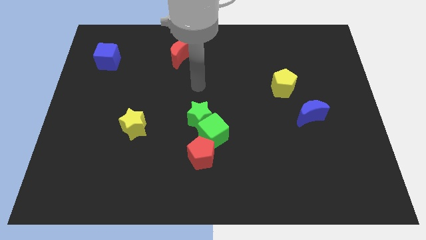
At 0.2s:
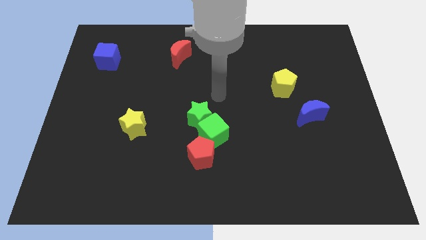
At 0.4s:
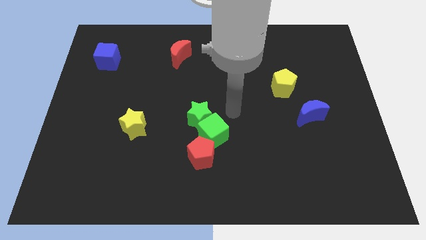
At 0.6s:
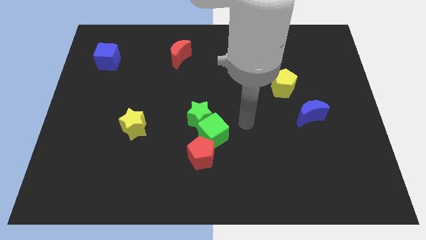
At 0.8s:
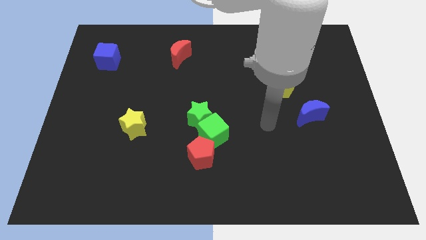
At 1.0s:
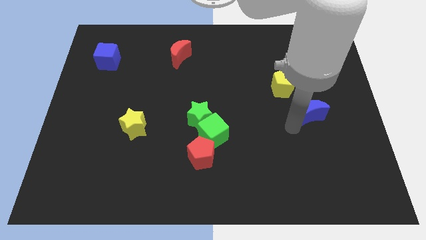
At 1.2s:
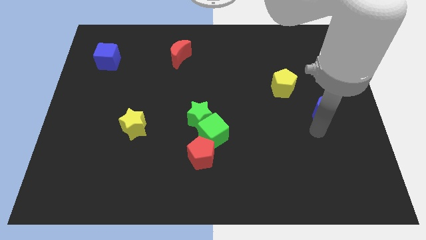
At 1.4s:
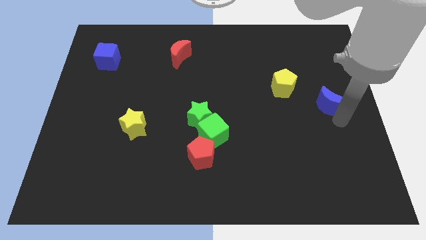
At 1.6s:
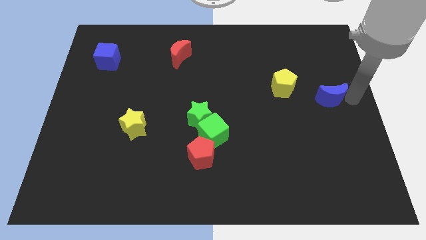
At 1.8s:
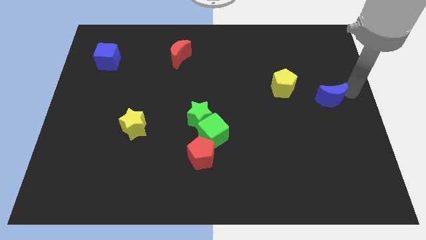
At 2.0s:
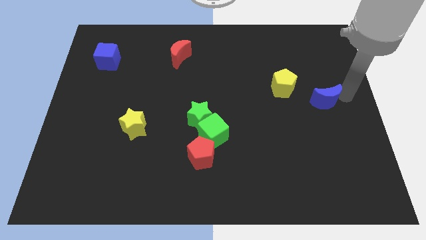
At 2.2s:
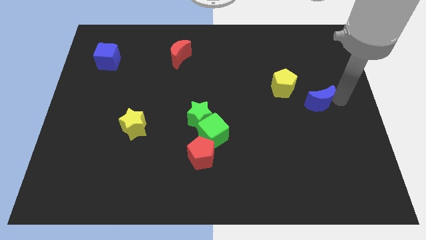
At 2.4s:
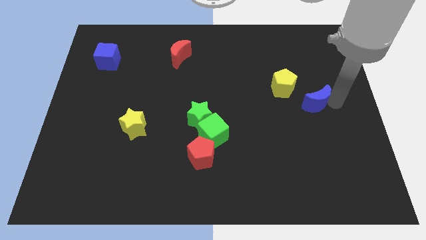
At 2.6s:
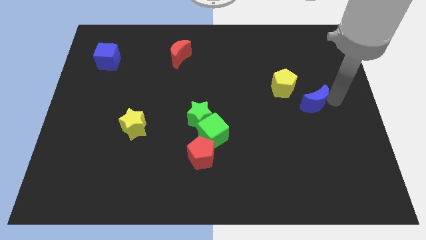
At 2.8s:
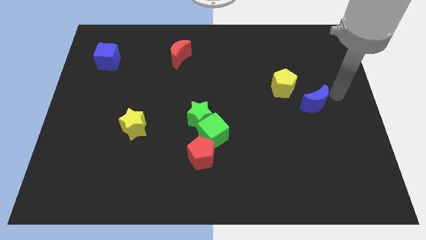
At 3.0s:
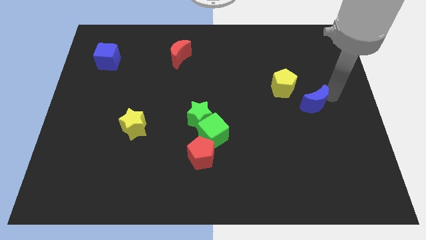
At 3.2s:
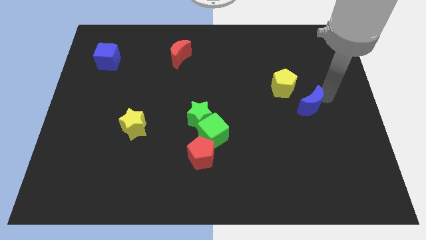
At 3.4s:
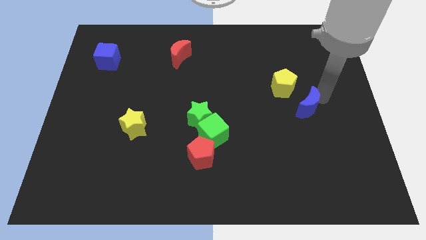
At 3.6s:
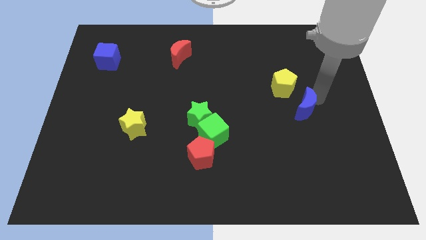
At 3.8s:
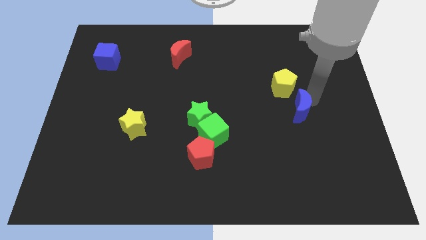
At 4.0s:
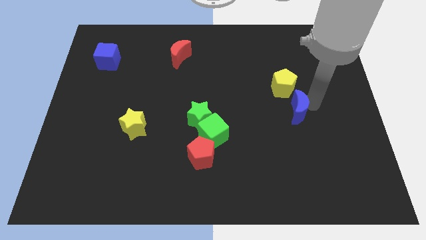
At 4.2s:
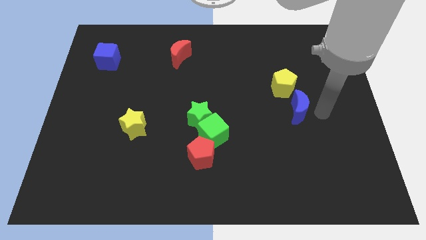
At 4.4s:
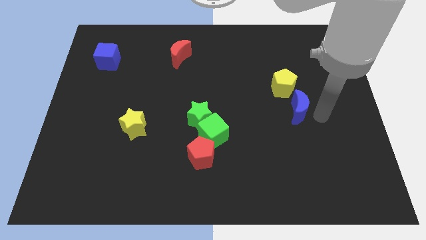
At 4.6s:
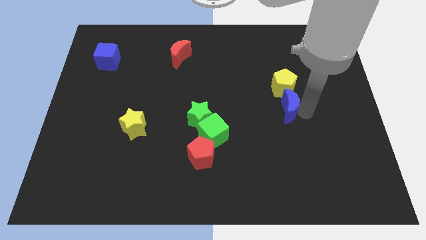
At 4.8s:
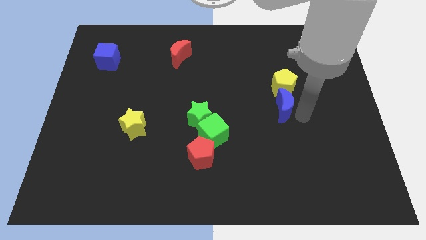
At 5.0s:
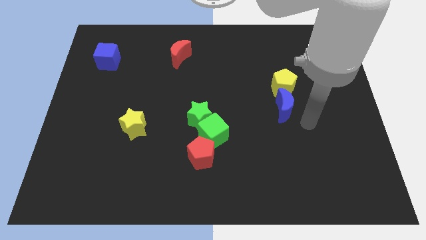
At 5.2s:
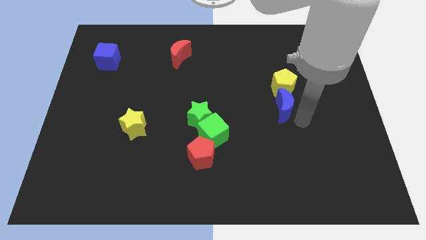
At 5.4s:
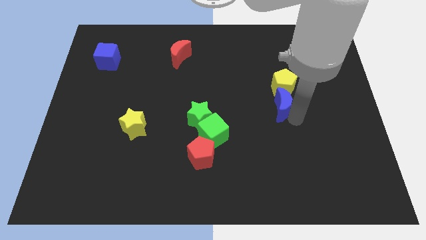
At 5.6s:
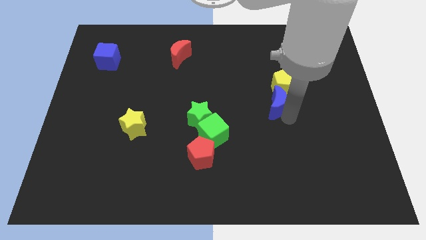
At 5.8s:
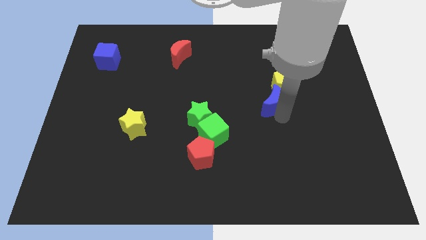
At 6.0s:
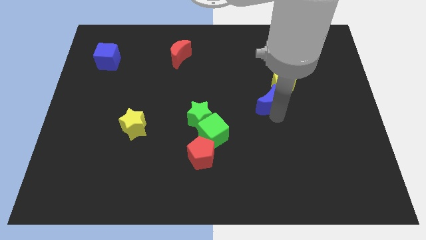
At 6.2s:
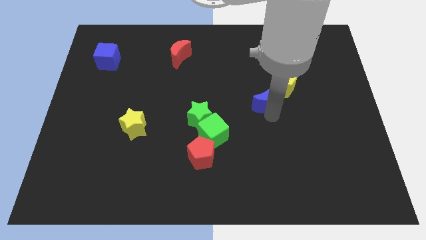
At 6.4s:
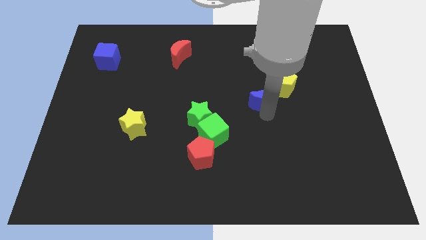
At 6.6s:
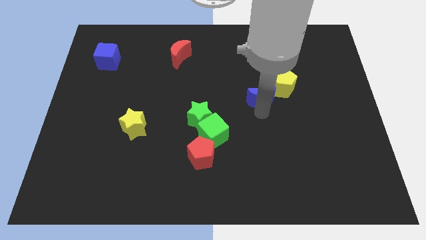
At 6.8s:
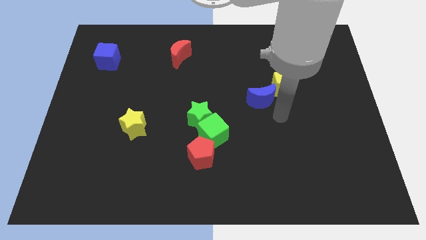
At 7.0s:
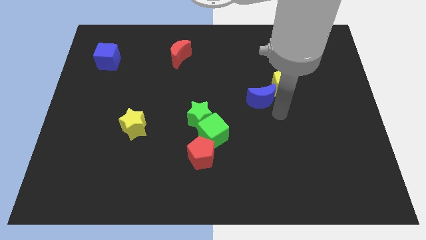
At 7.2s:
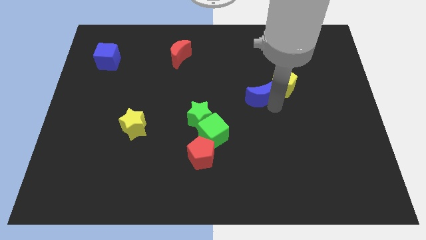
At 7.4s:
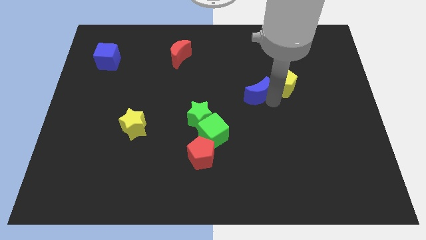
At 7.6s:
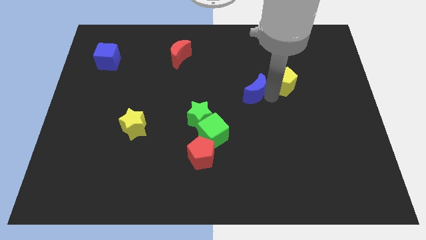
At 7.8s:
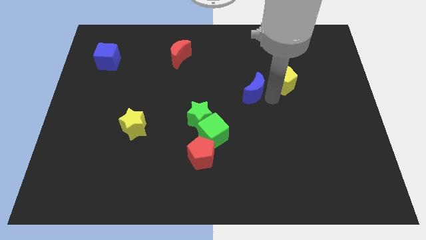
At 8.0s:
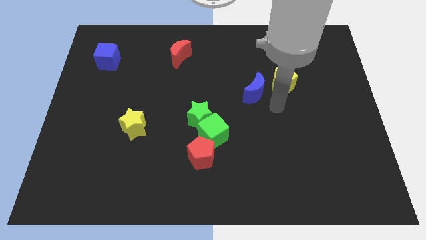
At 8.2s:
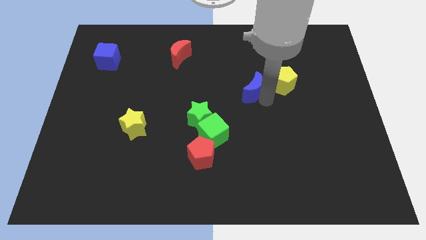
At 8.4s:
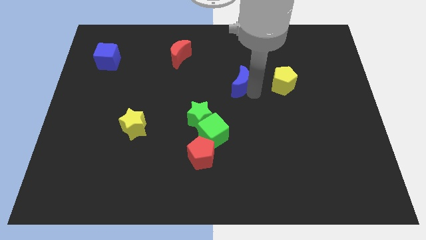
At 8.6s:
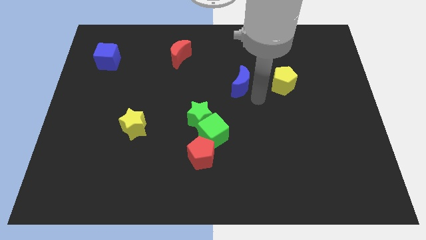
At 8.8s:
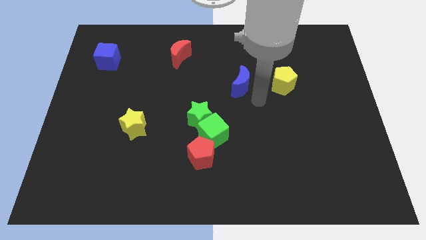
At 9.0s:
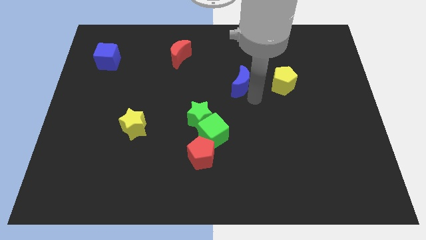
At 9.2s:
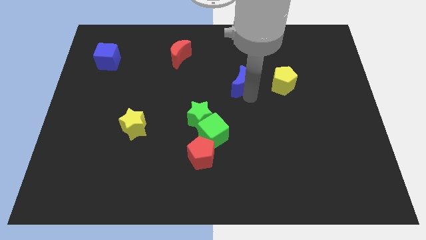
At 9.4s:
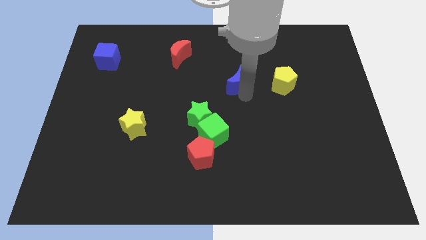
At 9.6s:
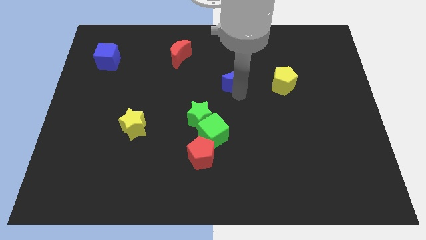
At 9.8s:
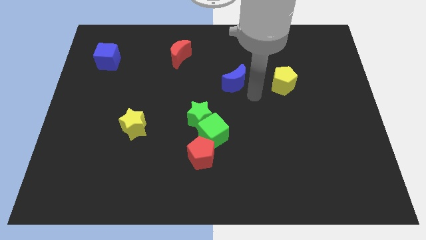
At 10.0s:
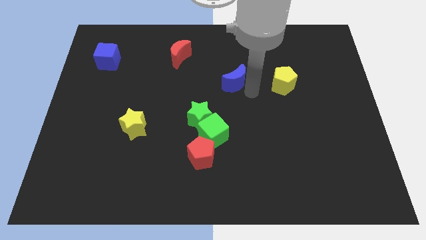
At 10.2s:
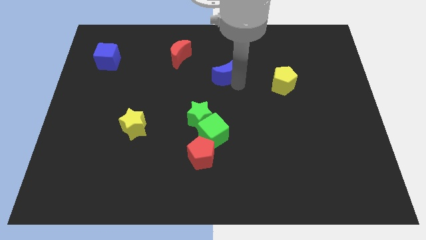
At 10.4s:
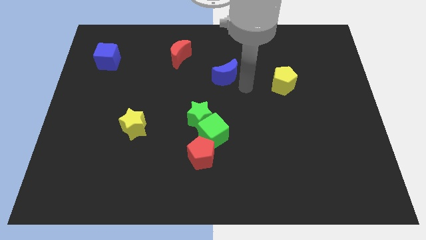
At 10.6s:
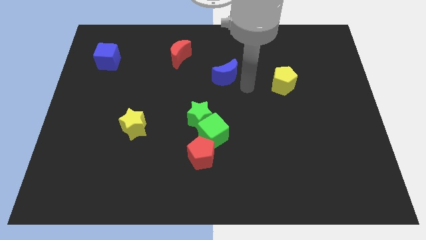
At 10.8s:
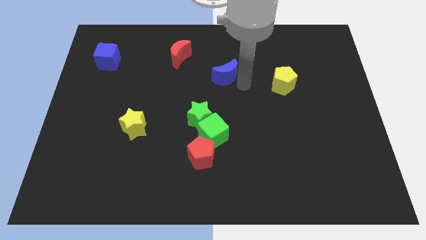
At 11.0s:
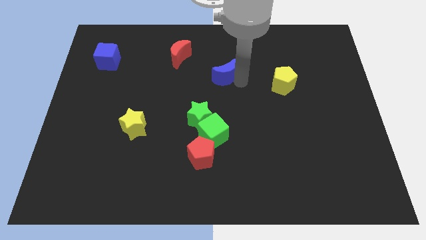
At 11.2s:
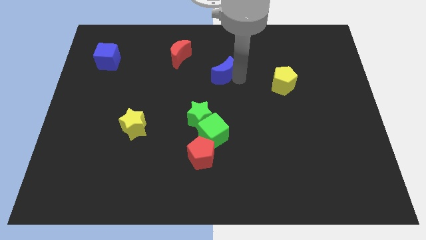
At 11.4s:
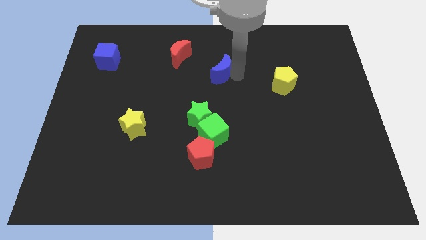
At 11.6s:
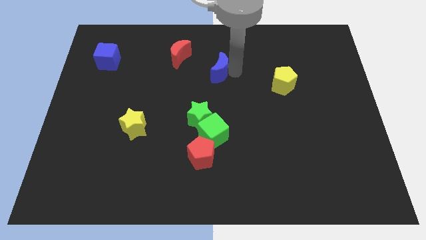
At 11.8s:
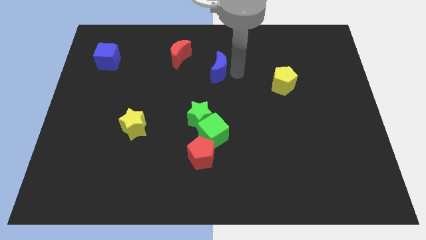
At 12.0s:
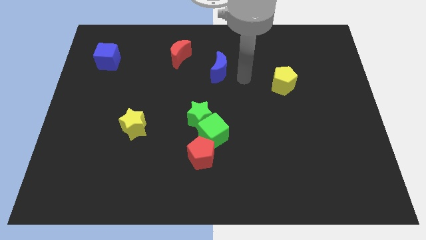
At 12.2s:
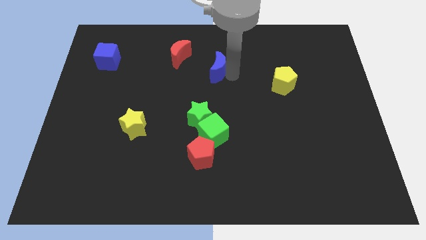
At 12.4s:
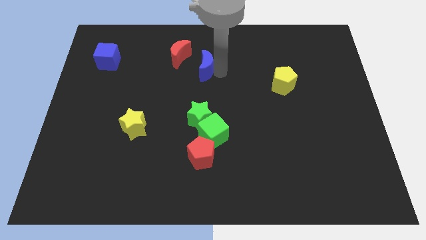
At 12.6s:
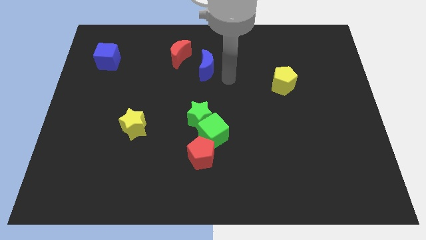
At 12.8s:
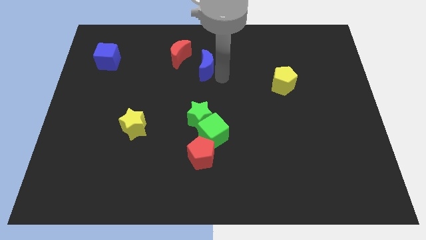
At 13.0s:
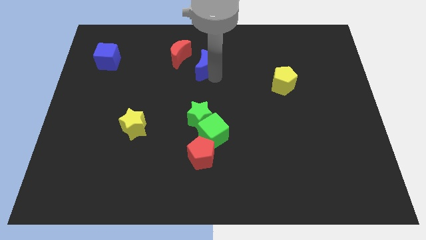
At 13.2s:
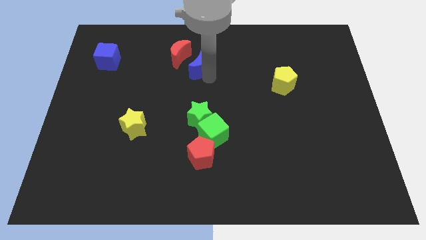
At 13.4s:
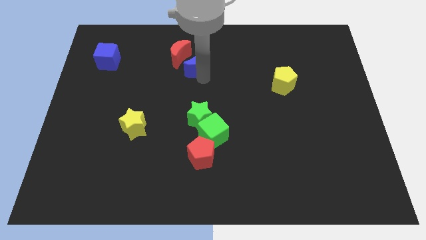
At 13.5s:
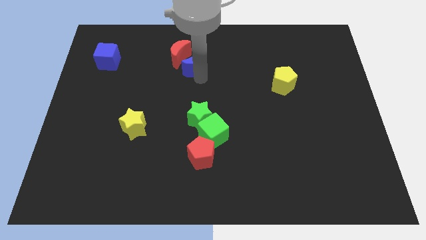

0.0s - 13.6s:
put the blue moon towards the red moon
